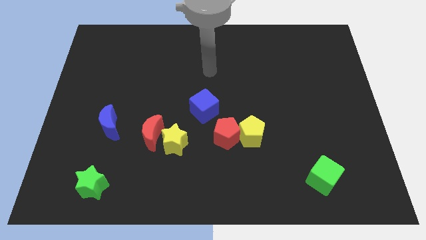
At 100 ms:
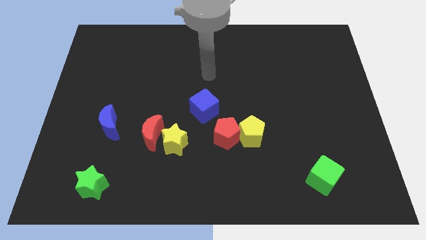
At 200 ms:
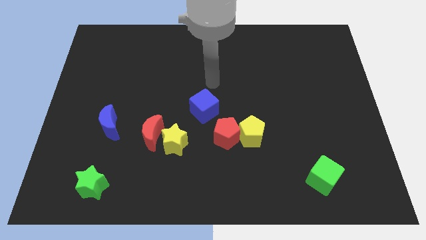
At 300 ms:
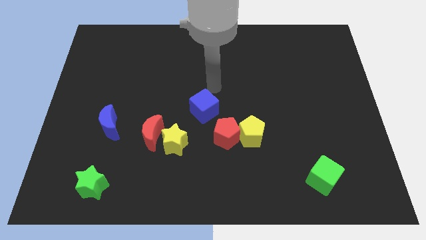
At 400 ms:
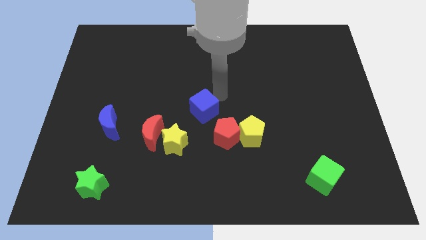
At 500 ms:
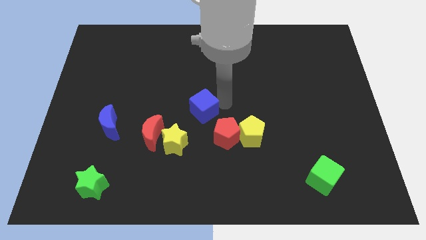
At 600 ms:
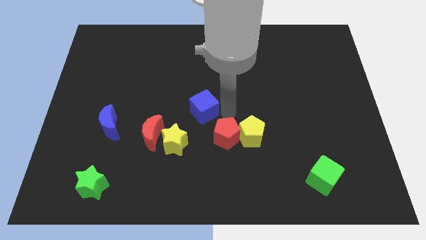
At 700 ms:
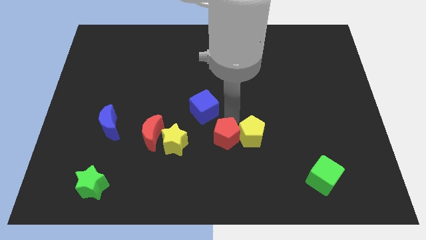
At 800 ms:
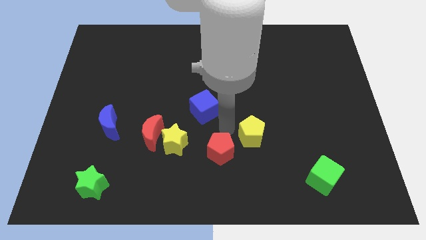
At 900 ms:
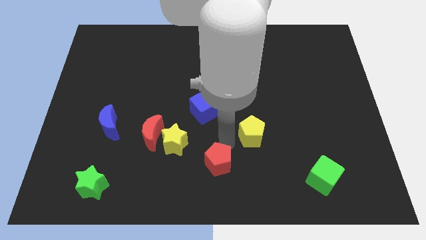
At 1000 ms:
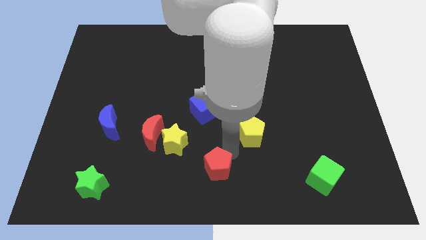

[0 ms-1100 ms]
pull the yellow pentagon apart from the red pentagon

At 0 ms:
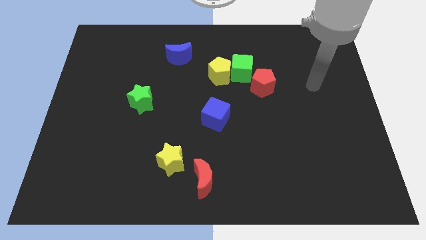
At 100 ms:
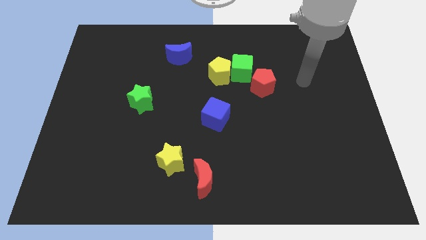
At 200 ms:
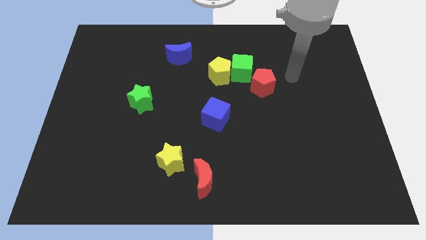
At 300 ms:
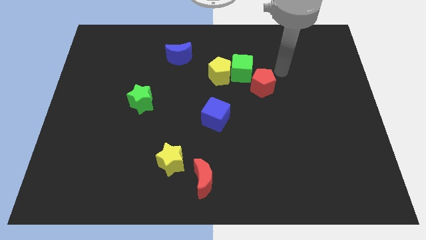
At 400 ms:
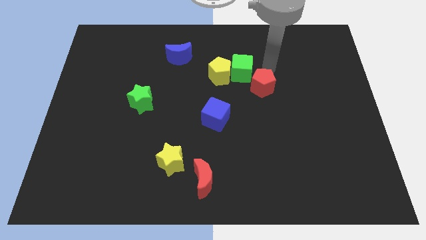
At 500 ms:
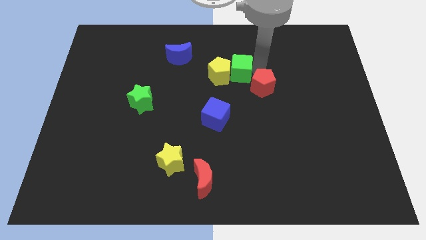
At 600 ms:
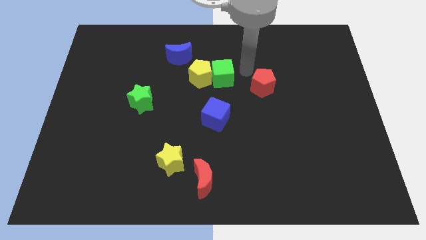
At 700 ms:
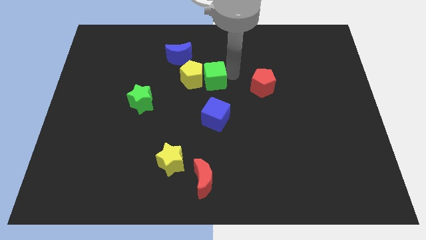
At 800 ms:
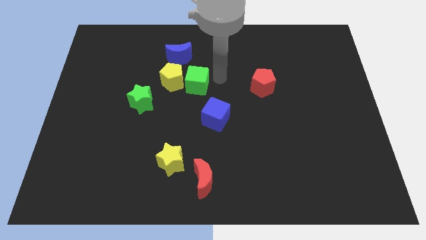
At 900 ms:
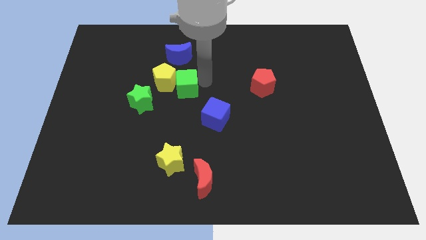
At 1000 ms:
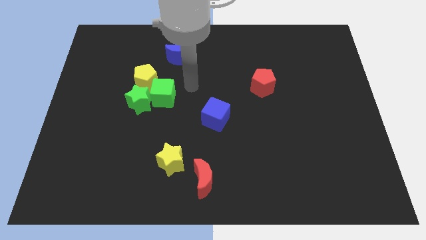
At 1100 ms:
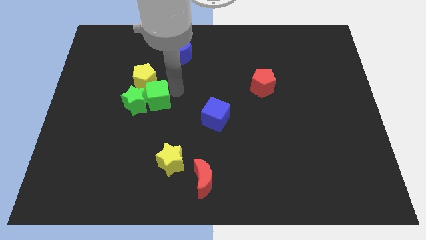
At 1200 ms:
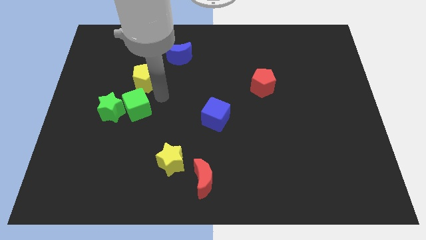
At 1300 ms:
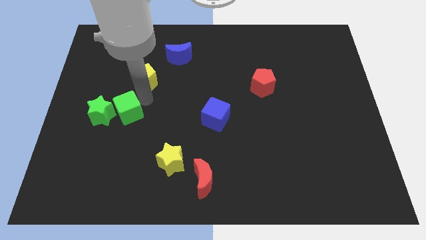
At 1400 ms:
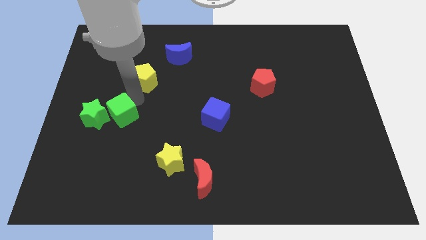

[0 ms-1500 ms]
move the yellow pentagon away from the green cube

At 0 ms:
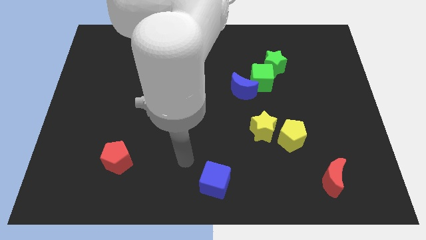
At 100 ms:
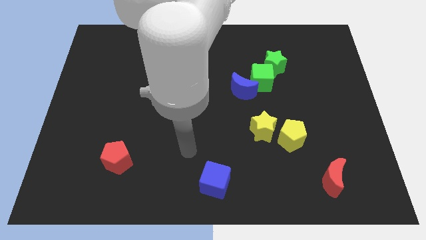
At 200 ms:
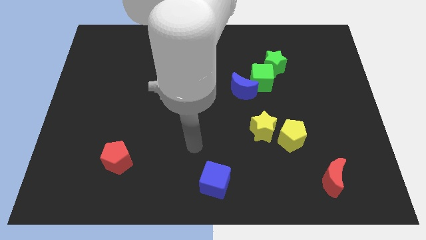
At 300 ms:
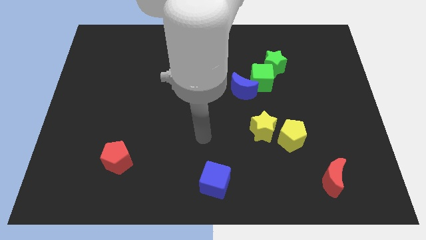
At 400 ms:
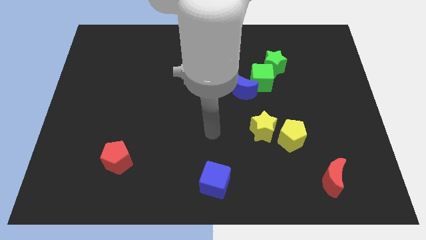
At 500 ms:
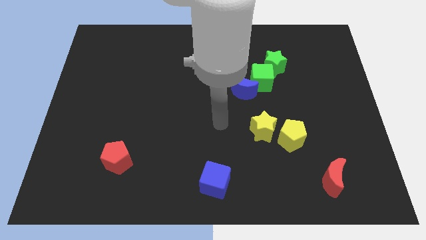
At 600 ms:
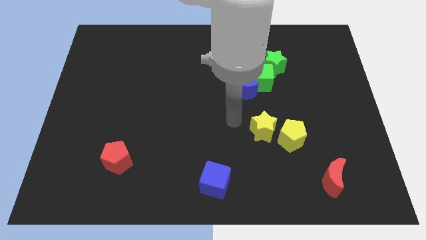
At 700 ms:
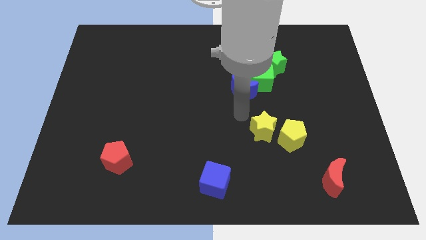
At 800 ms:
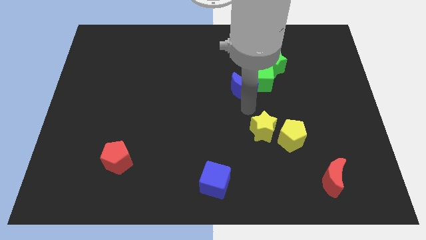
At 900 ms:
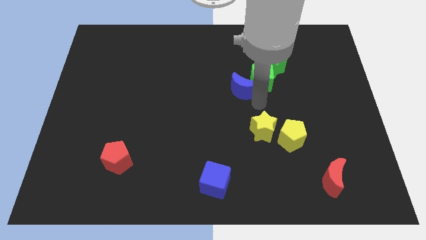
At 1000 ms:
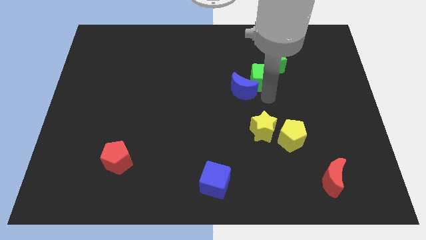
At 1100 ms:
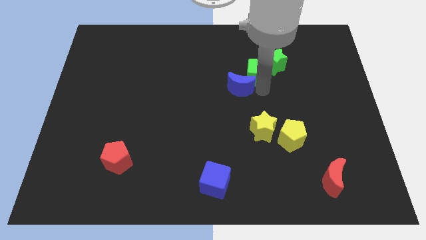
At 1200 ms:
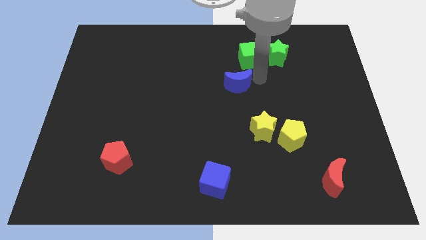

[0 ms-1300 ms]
separate the blue moon from the green cube

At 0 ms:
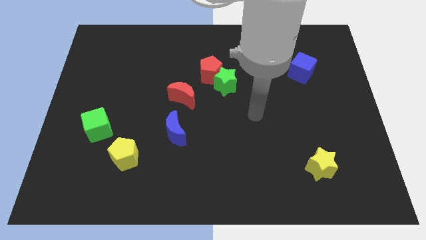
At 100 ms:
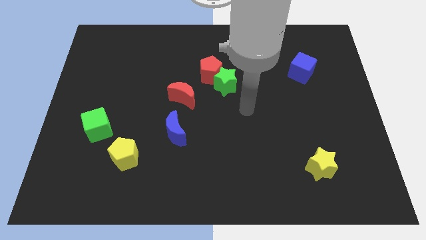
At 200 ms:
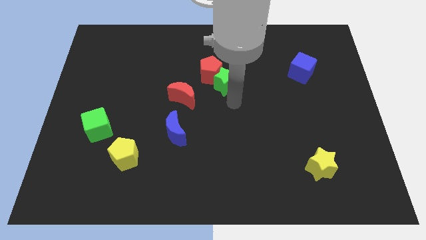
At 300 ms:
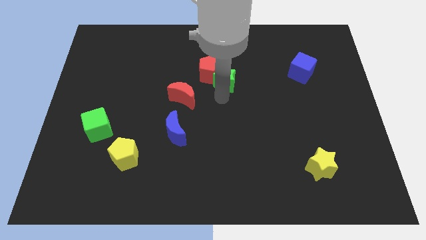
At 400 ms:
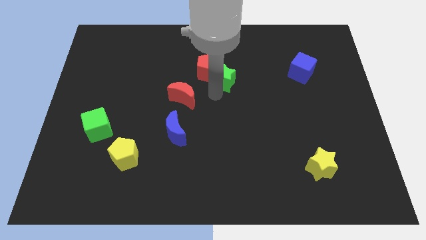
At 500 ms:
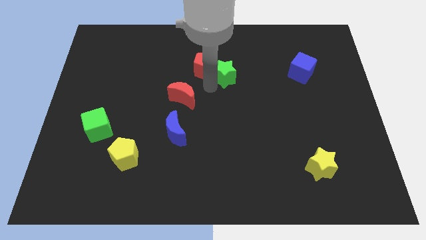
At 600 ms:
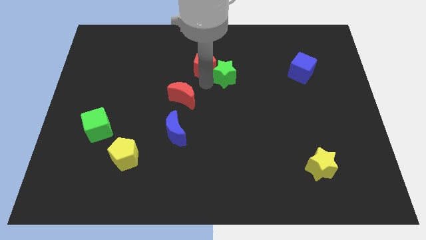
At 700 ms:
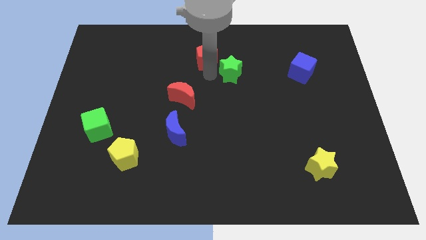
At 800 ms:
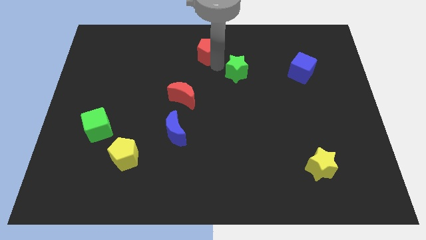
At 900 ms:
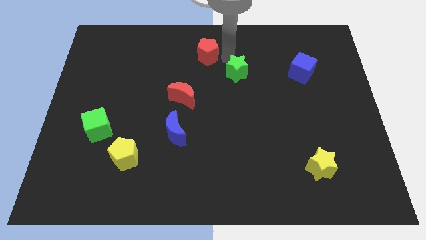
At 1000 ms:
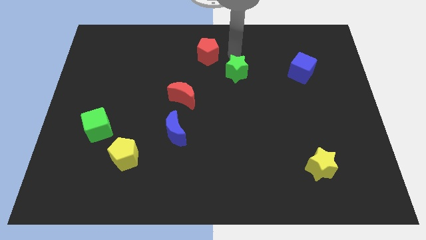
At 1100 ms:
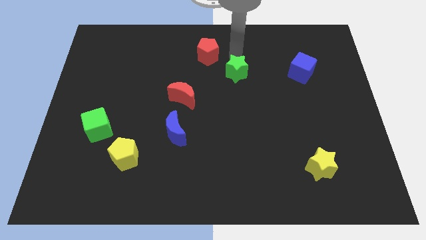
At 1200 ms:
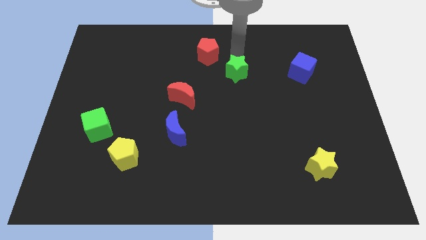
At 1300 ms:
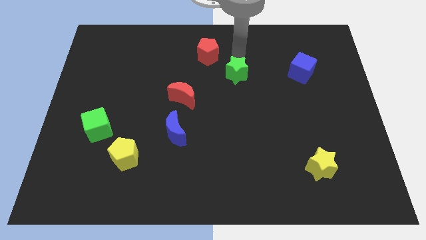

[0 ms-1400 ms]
move the green star away from the red pentagon

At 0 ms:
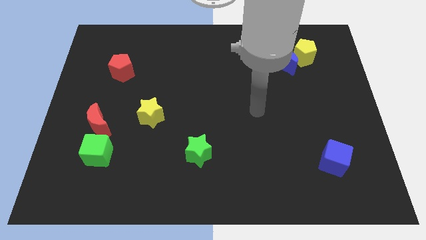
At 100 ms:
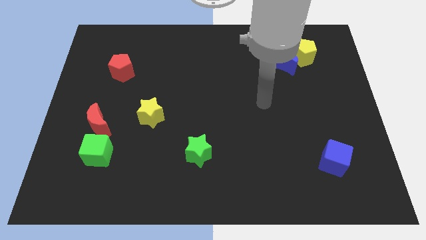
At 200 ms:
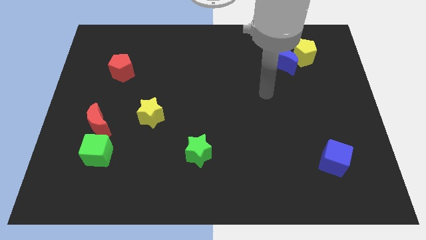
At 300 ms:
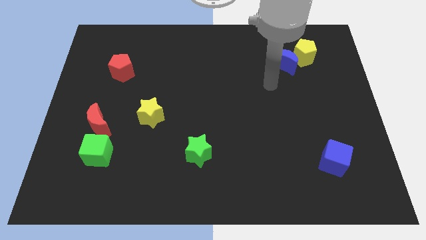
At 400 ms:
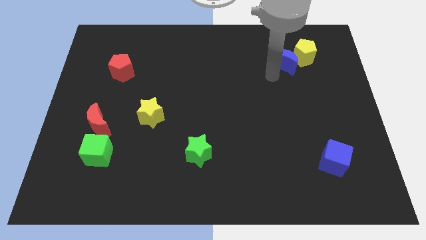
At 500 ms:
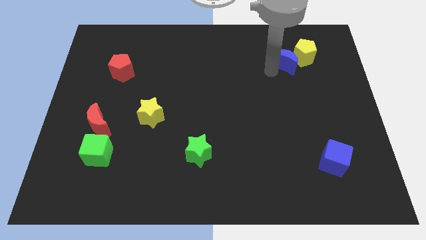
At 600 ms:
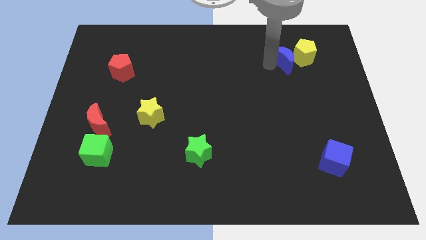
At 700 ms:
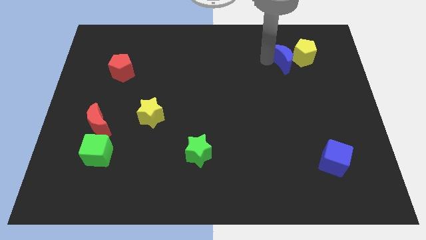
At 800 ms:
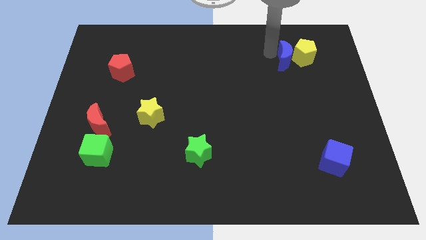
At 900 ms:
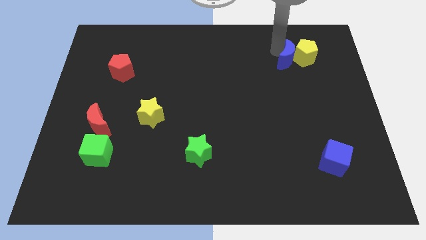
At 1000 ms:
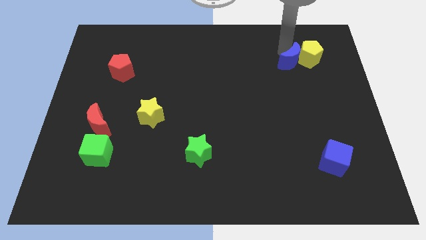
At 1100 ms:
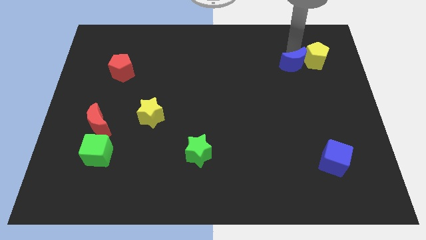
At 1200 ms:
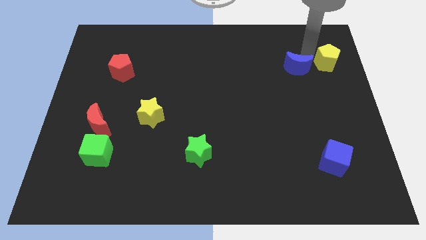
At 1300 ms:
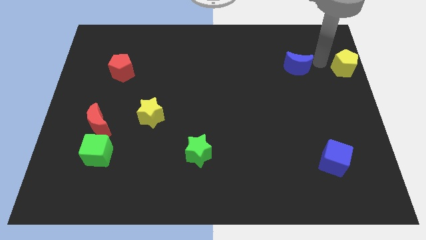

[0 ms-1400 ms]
move the blue moon away from the yellow pentagon

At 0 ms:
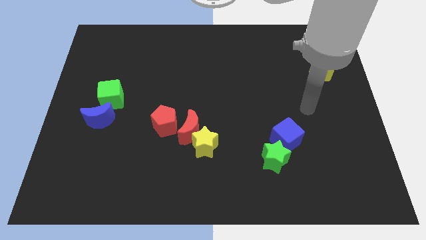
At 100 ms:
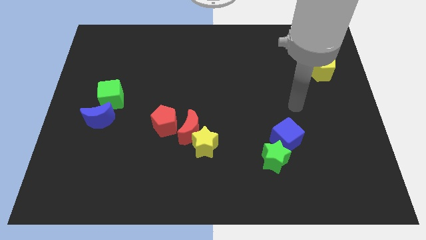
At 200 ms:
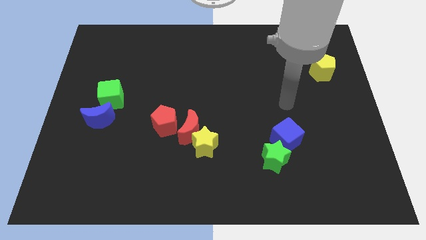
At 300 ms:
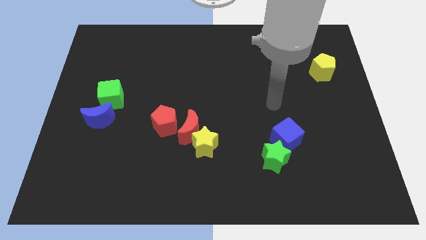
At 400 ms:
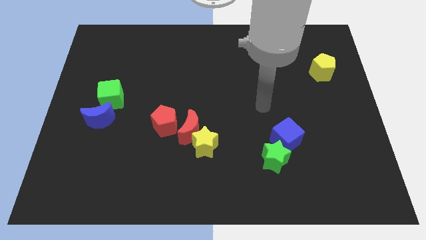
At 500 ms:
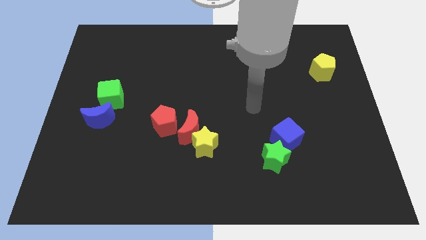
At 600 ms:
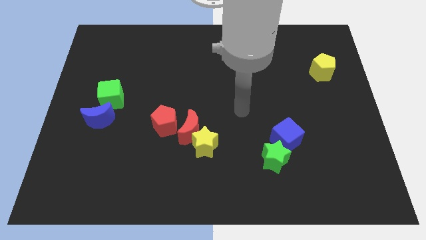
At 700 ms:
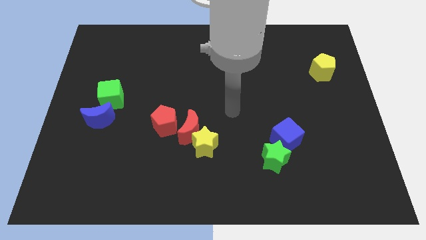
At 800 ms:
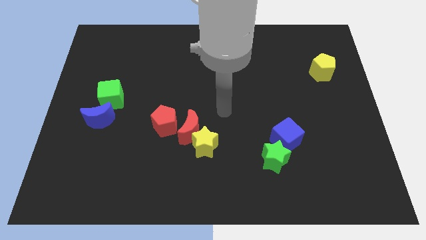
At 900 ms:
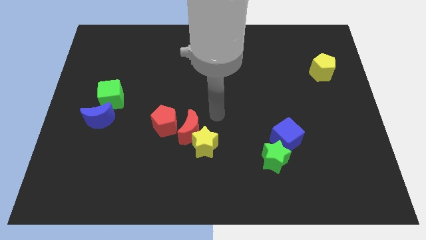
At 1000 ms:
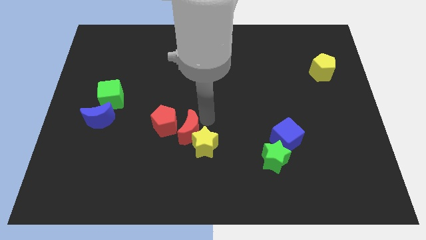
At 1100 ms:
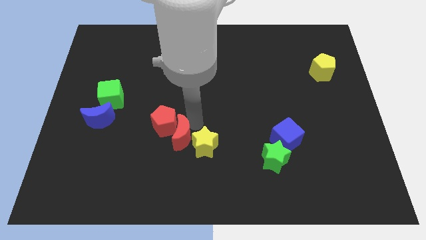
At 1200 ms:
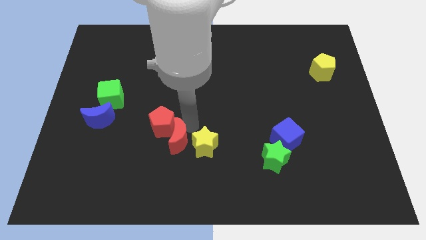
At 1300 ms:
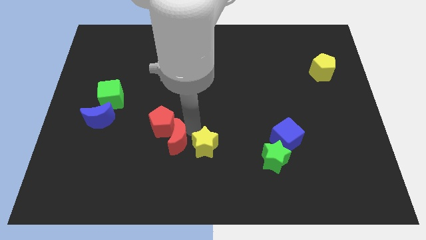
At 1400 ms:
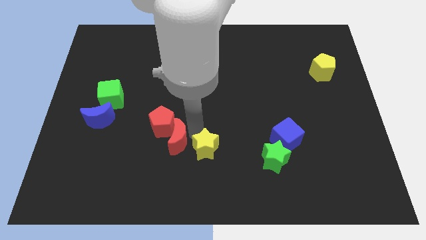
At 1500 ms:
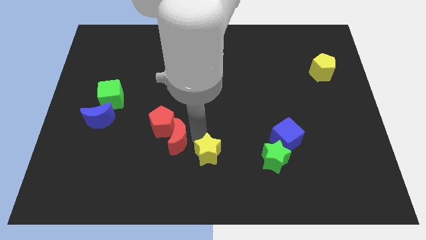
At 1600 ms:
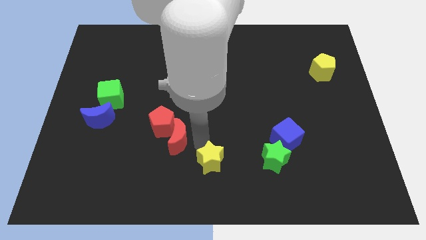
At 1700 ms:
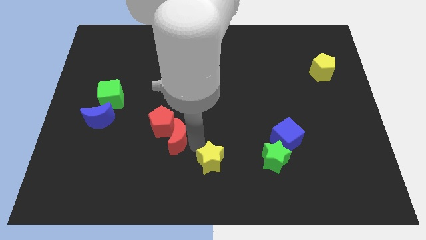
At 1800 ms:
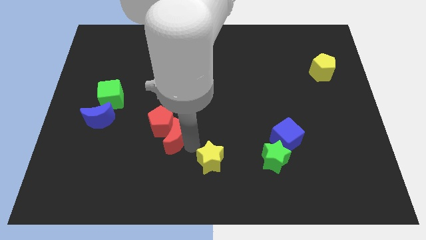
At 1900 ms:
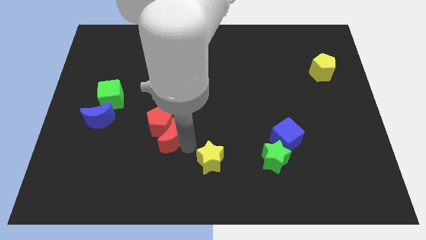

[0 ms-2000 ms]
pull the yellow star apart from the red moon

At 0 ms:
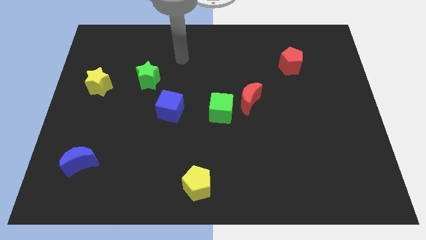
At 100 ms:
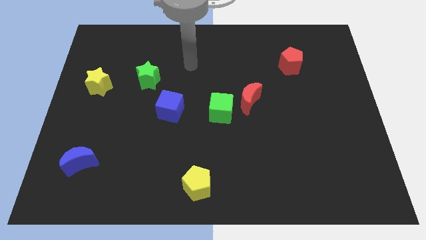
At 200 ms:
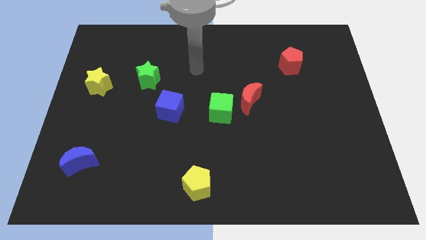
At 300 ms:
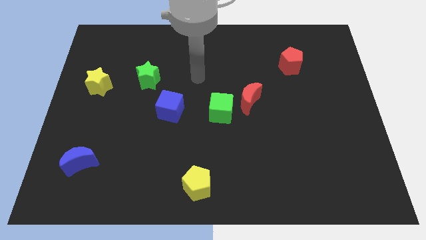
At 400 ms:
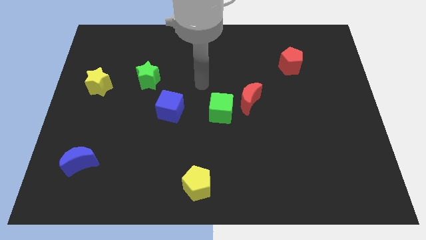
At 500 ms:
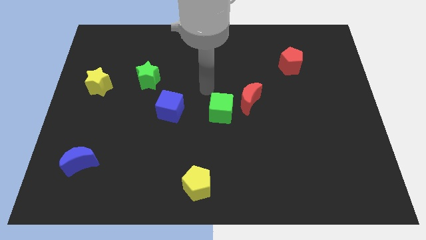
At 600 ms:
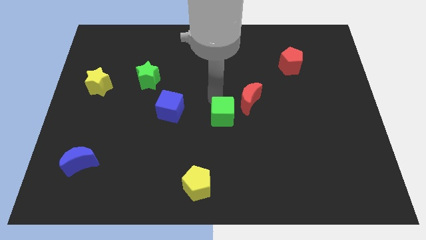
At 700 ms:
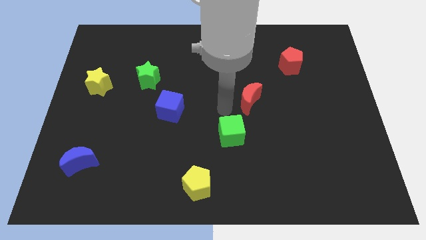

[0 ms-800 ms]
move the red moon away from the green cube
